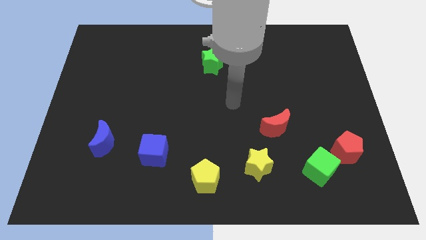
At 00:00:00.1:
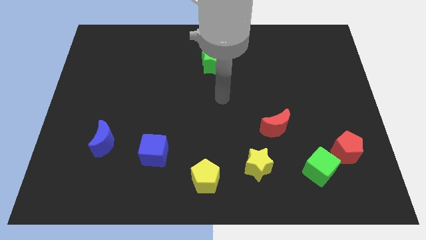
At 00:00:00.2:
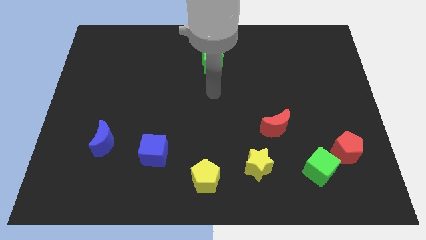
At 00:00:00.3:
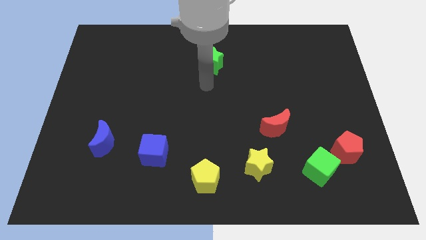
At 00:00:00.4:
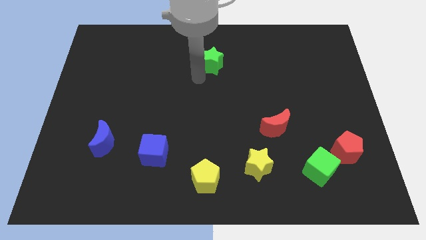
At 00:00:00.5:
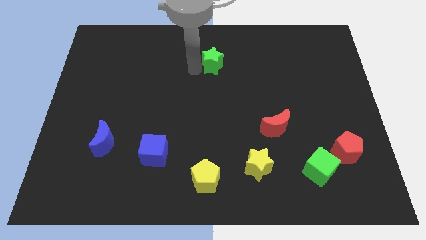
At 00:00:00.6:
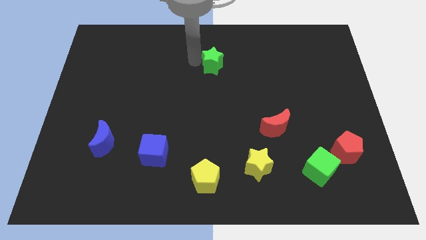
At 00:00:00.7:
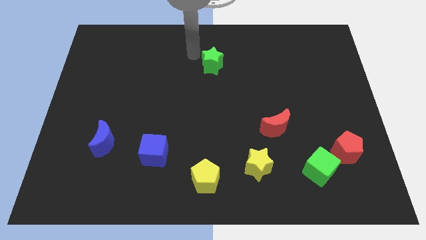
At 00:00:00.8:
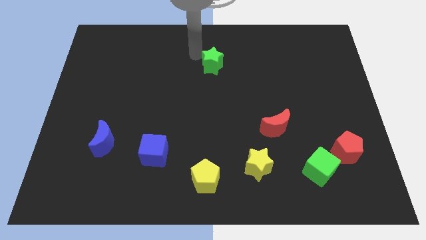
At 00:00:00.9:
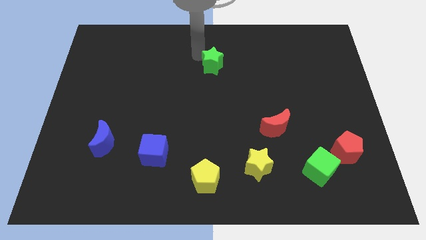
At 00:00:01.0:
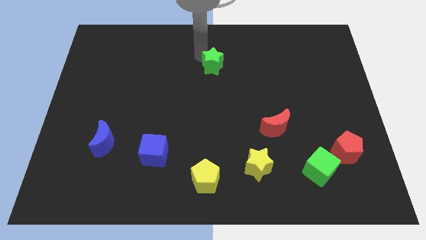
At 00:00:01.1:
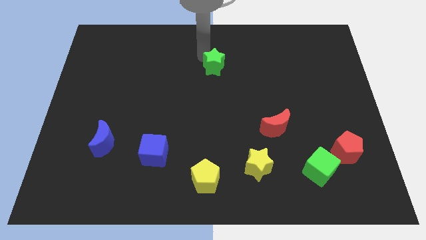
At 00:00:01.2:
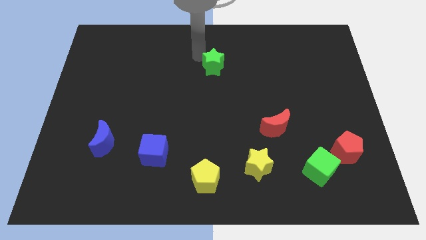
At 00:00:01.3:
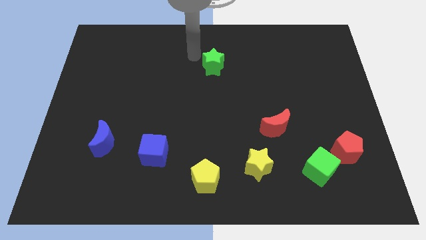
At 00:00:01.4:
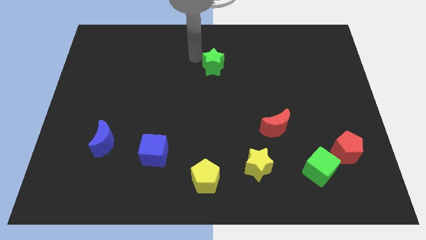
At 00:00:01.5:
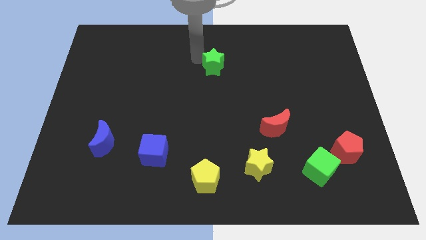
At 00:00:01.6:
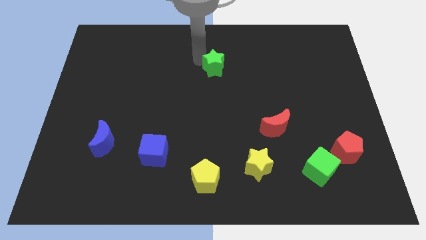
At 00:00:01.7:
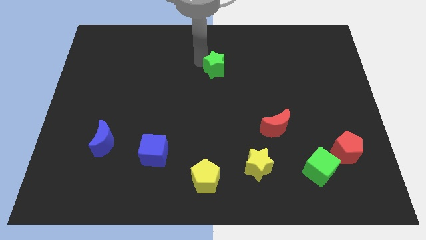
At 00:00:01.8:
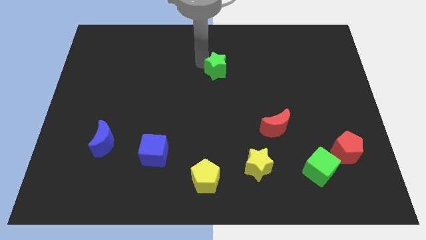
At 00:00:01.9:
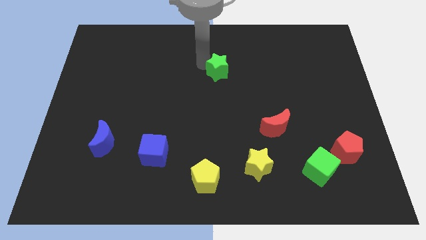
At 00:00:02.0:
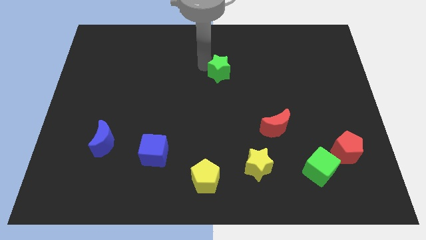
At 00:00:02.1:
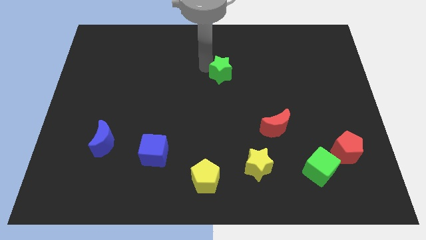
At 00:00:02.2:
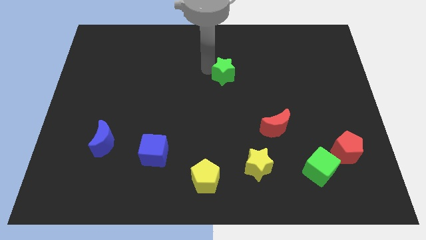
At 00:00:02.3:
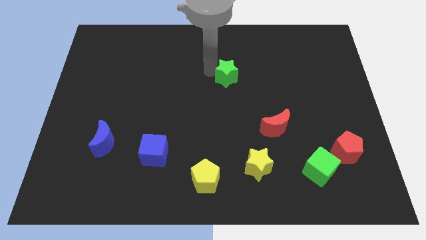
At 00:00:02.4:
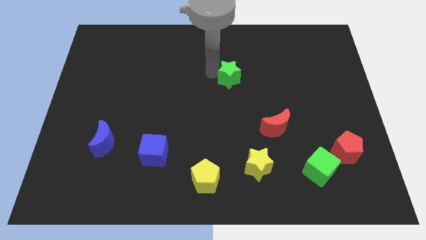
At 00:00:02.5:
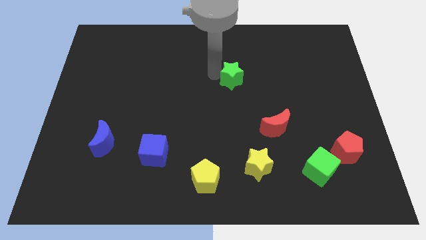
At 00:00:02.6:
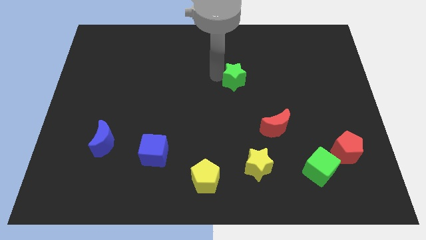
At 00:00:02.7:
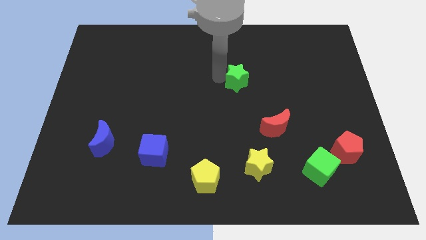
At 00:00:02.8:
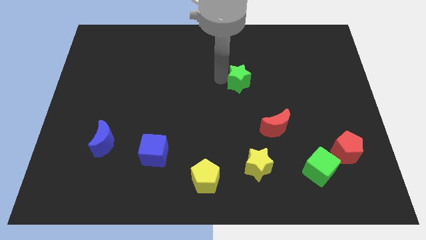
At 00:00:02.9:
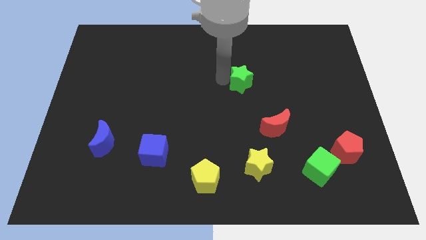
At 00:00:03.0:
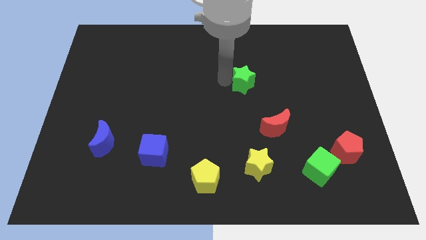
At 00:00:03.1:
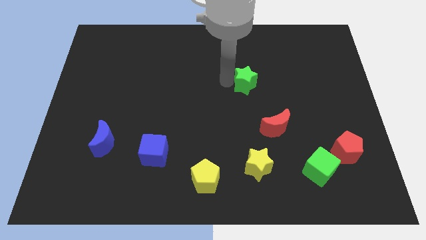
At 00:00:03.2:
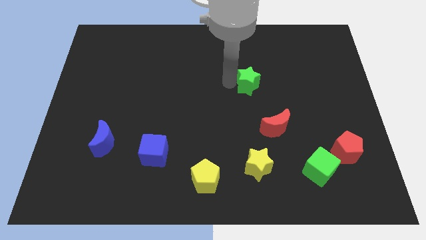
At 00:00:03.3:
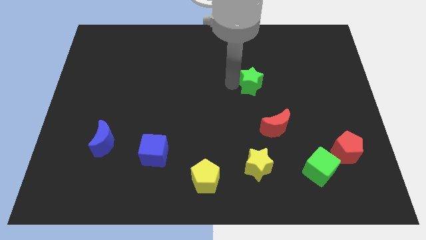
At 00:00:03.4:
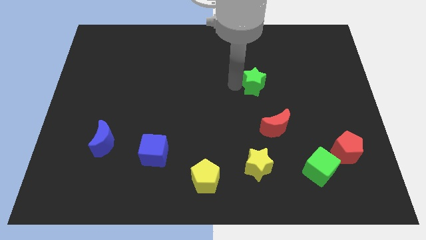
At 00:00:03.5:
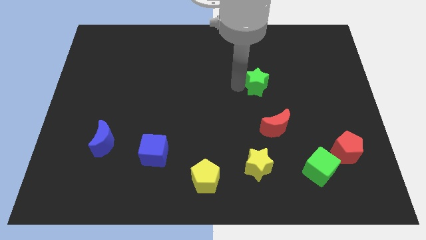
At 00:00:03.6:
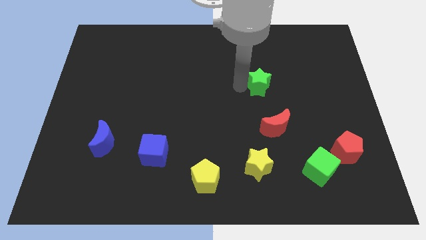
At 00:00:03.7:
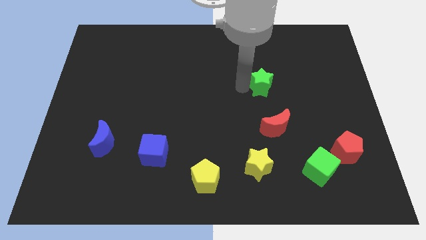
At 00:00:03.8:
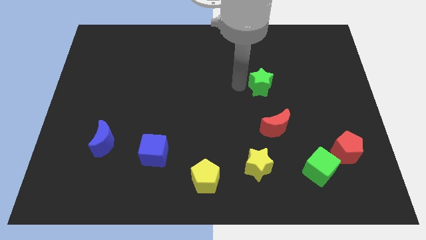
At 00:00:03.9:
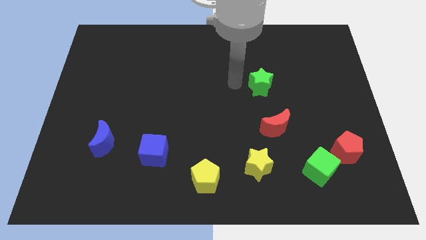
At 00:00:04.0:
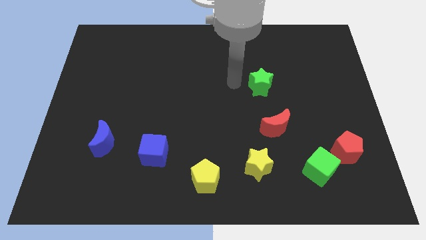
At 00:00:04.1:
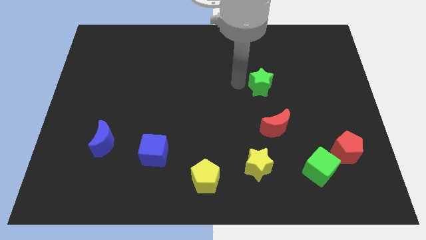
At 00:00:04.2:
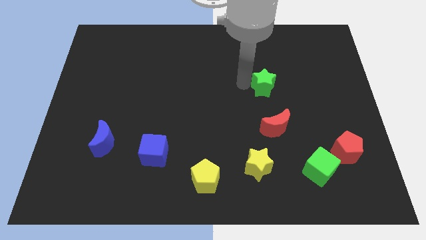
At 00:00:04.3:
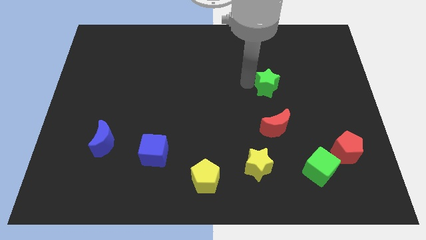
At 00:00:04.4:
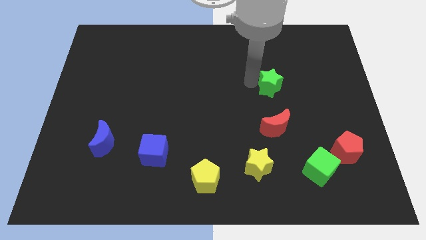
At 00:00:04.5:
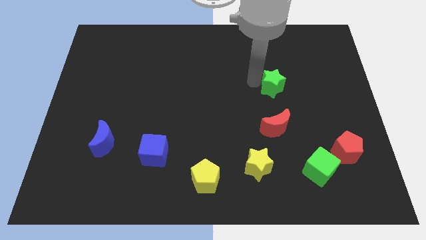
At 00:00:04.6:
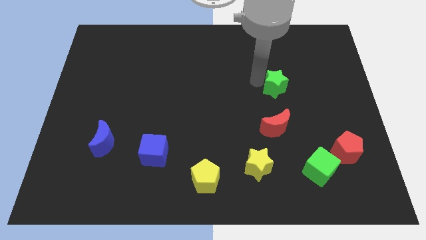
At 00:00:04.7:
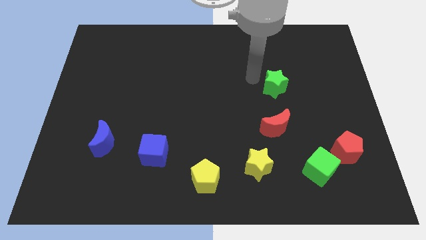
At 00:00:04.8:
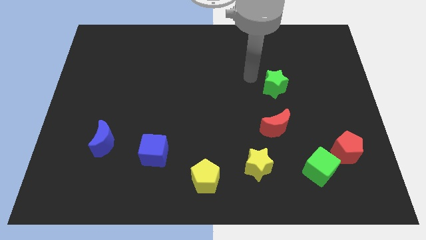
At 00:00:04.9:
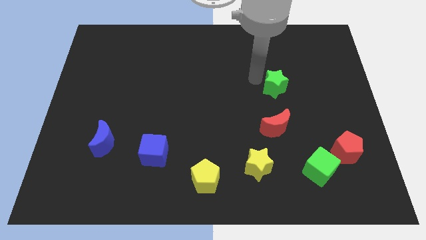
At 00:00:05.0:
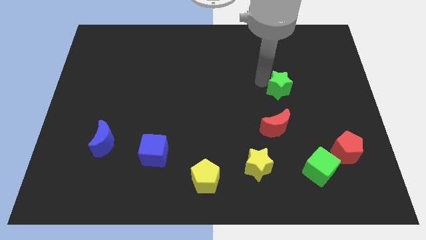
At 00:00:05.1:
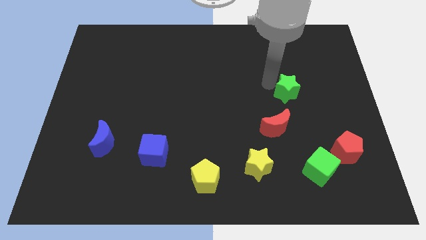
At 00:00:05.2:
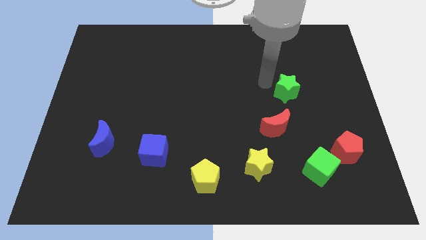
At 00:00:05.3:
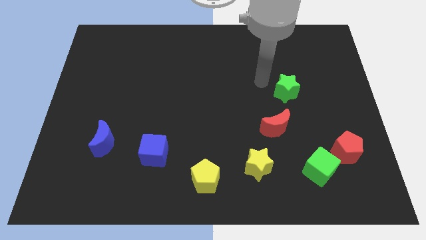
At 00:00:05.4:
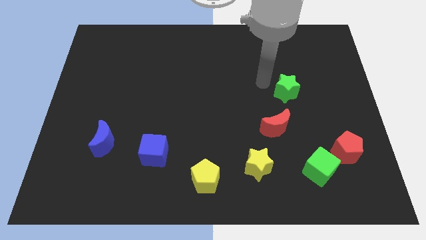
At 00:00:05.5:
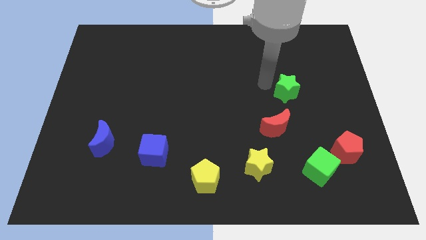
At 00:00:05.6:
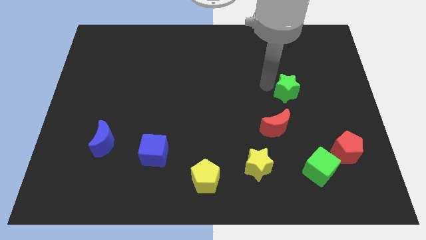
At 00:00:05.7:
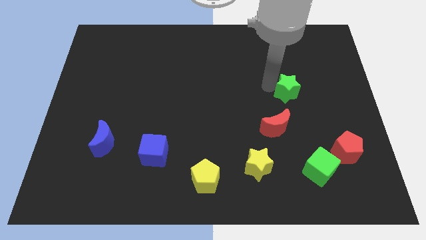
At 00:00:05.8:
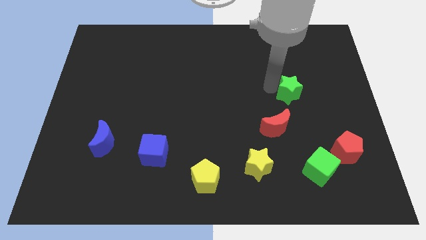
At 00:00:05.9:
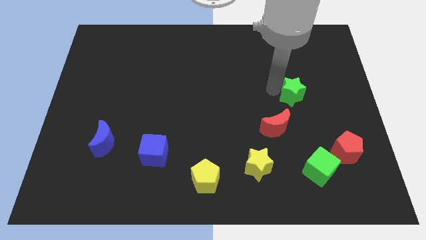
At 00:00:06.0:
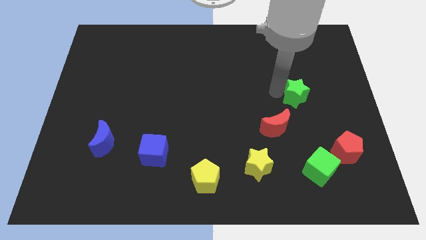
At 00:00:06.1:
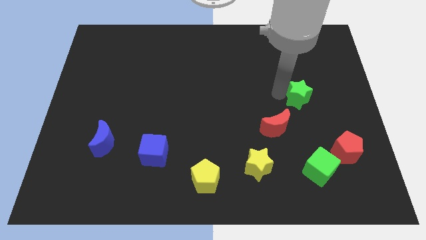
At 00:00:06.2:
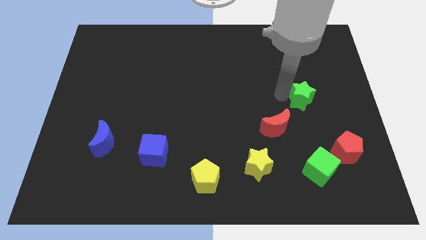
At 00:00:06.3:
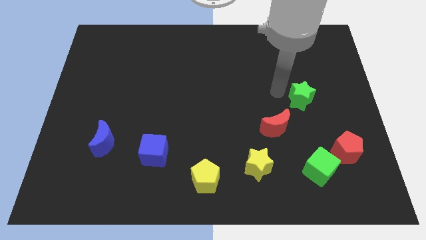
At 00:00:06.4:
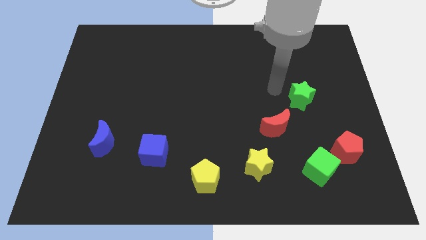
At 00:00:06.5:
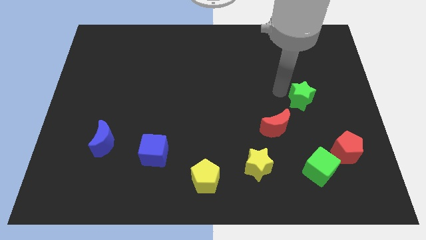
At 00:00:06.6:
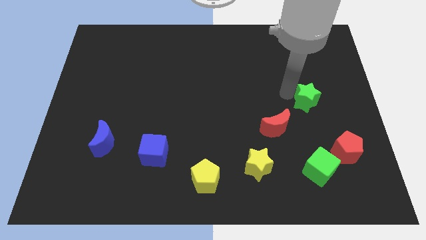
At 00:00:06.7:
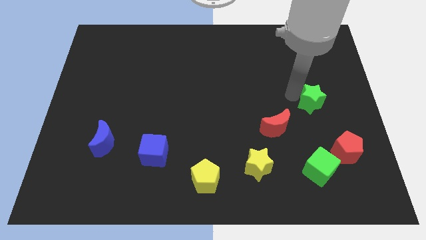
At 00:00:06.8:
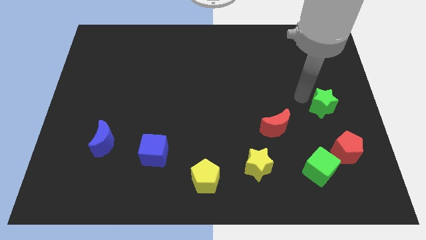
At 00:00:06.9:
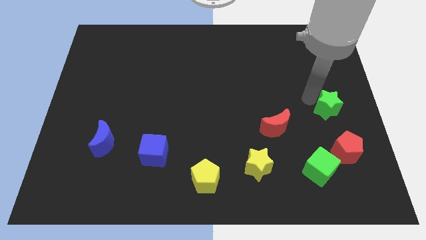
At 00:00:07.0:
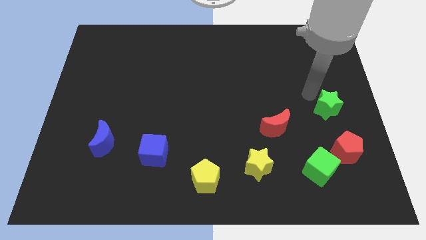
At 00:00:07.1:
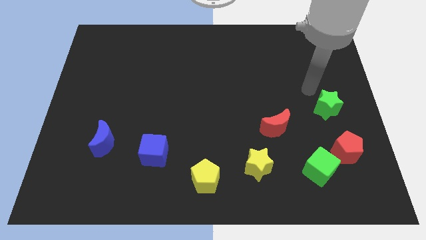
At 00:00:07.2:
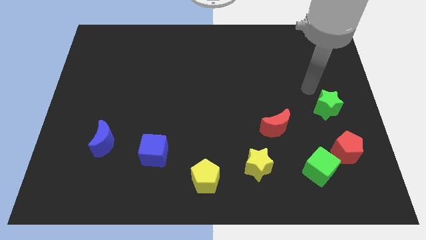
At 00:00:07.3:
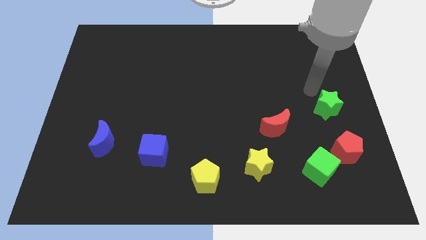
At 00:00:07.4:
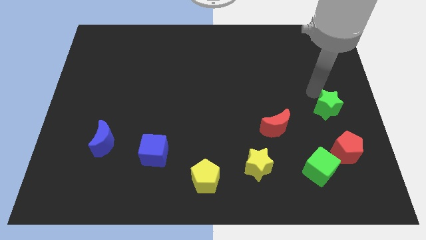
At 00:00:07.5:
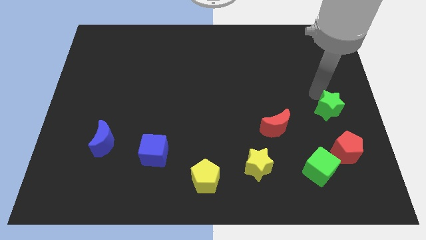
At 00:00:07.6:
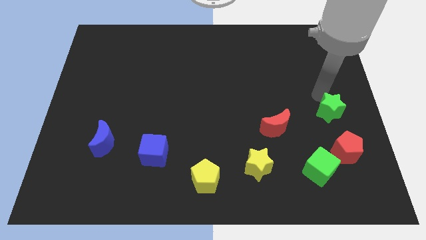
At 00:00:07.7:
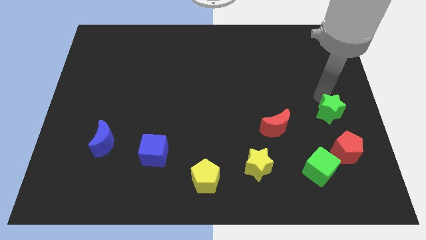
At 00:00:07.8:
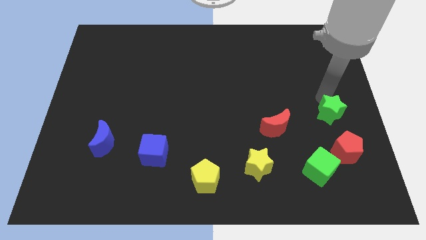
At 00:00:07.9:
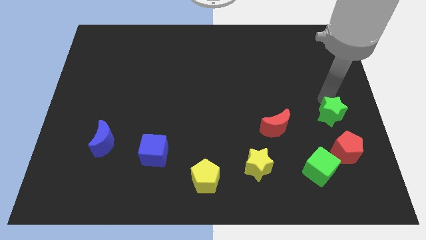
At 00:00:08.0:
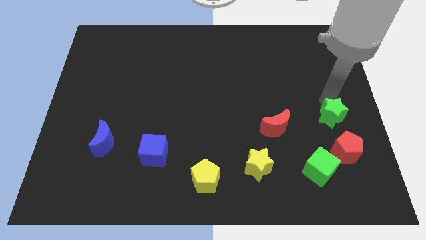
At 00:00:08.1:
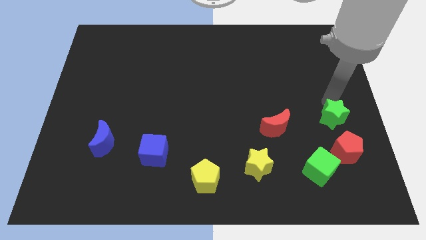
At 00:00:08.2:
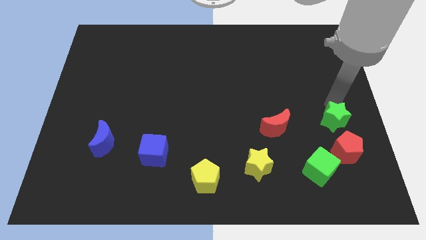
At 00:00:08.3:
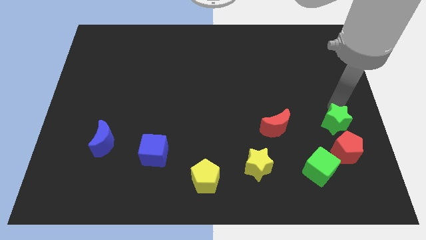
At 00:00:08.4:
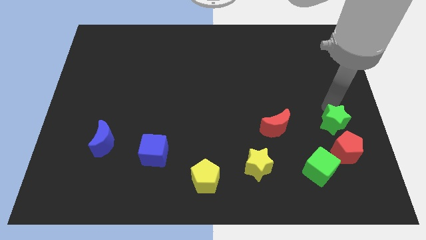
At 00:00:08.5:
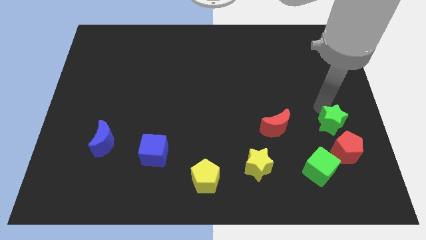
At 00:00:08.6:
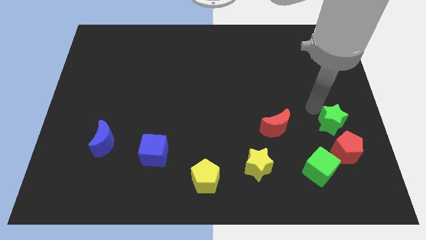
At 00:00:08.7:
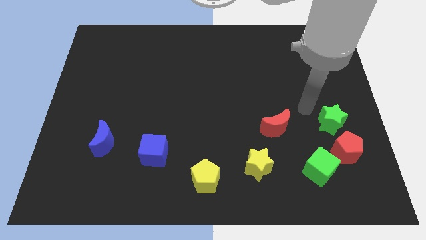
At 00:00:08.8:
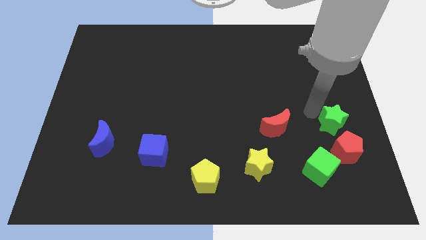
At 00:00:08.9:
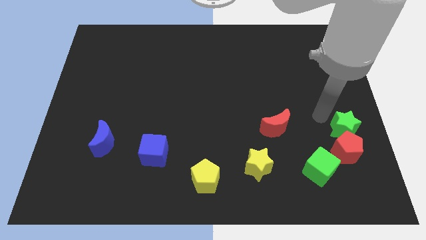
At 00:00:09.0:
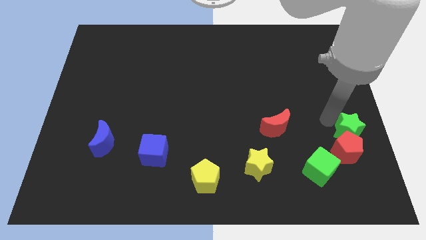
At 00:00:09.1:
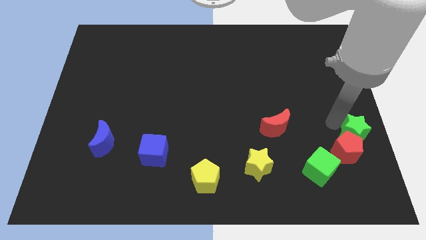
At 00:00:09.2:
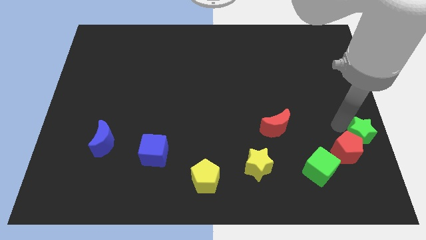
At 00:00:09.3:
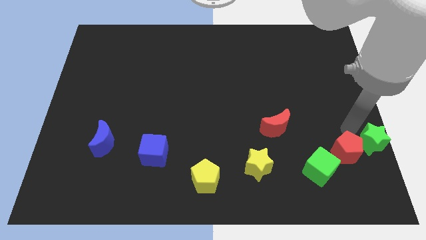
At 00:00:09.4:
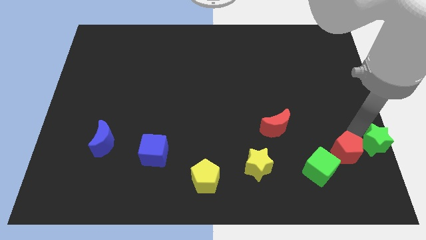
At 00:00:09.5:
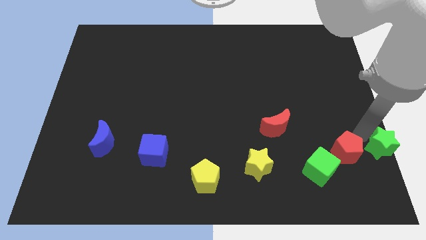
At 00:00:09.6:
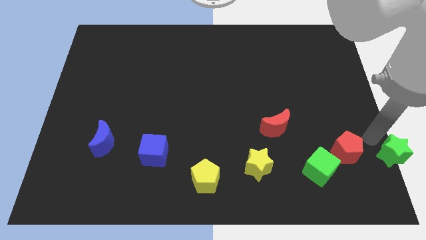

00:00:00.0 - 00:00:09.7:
move the green star to the lower right corner
